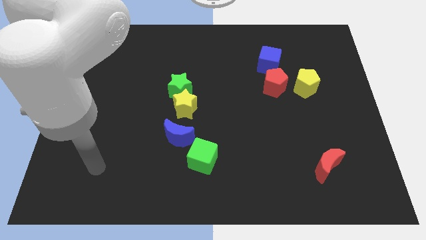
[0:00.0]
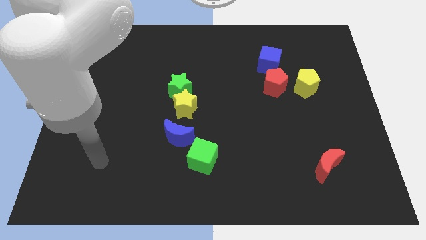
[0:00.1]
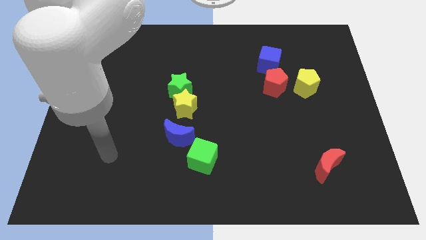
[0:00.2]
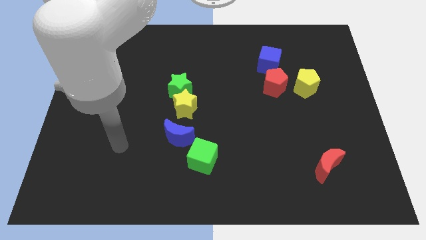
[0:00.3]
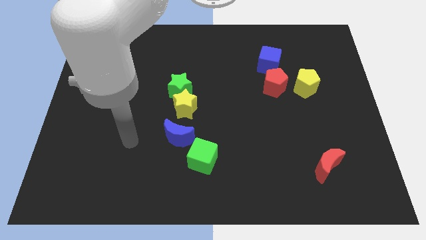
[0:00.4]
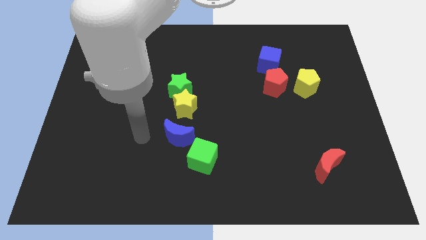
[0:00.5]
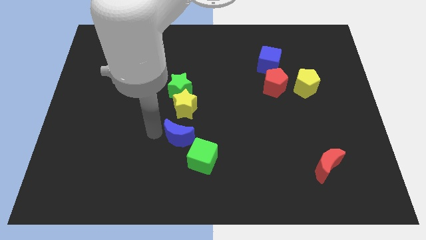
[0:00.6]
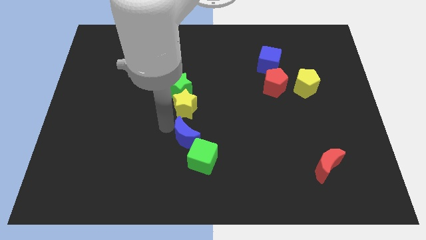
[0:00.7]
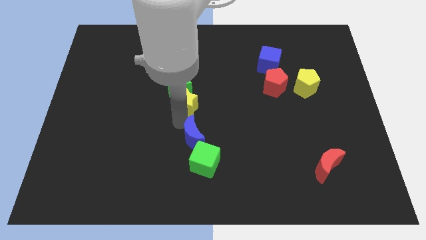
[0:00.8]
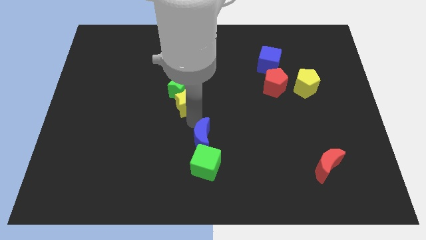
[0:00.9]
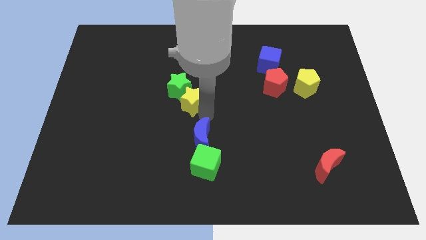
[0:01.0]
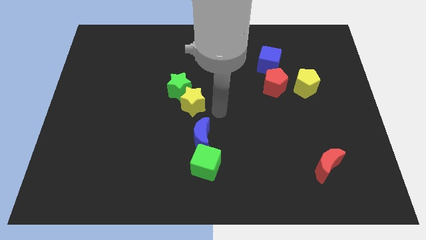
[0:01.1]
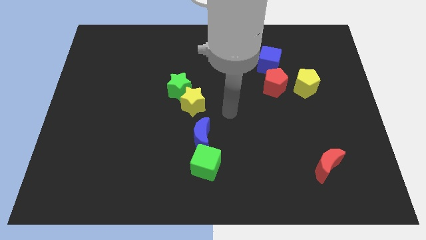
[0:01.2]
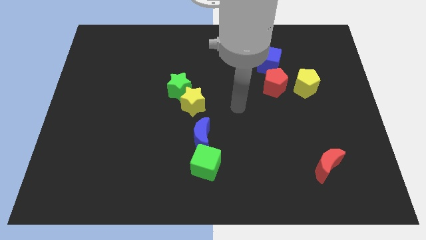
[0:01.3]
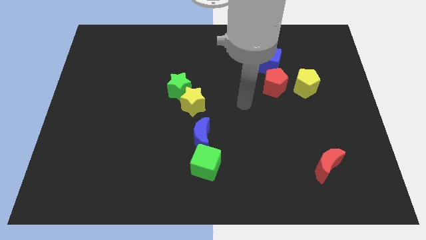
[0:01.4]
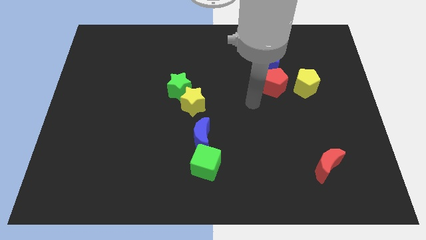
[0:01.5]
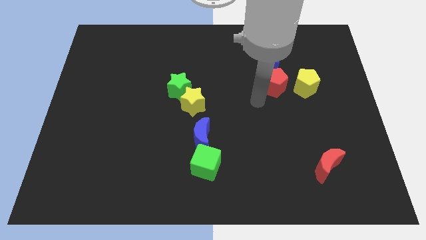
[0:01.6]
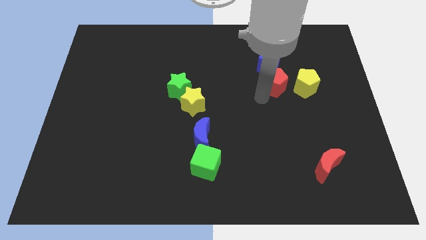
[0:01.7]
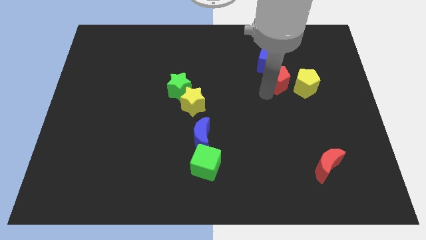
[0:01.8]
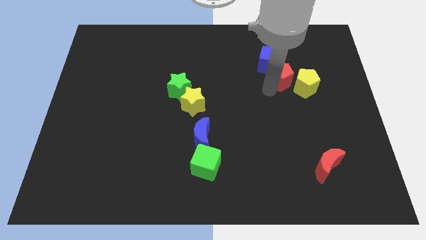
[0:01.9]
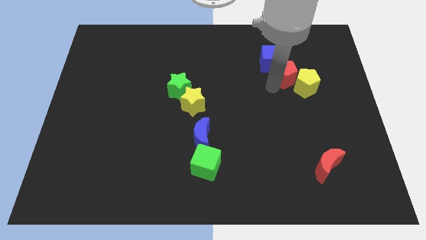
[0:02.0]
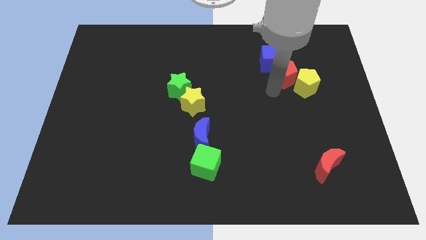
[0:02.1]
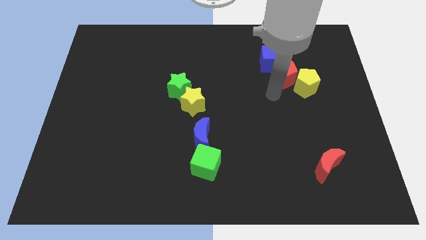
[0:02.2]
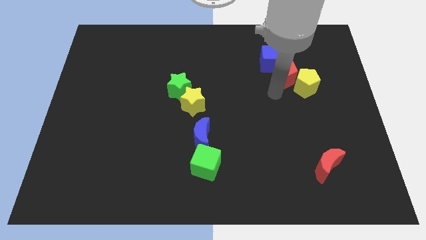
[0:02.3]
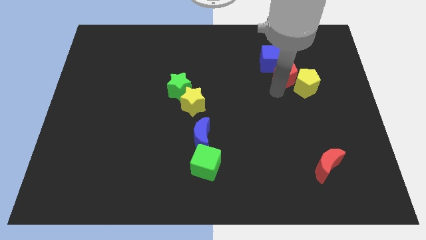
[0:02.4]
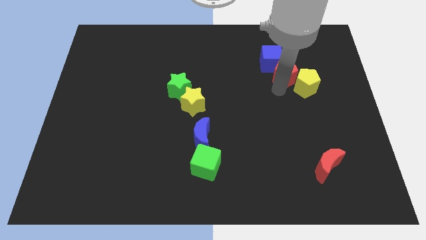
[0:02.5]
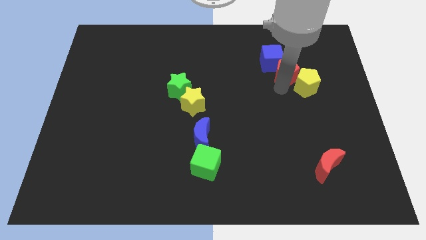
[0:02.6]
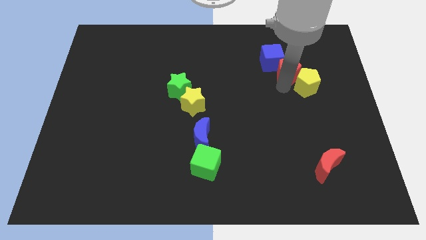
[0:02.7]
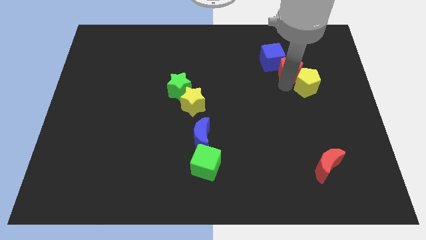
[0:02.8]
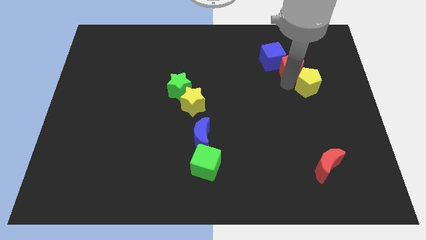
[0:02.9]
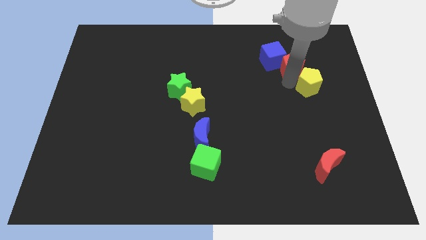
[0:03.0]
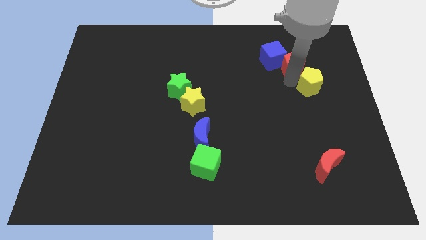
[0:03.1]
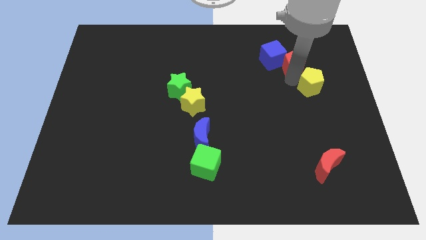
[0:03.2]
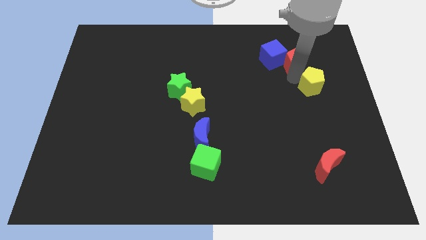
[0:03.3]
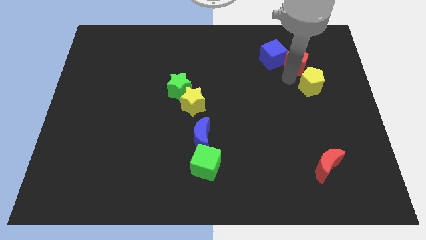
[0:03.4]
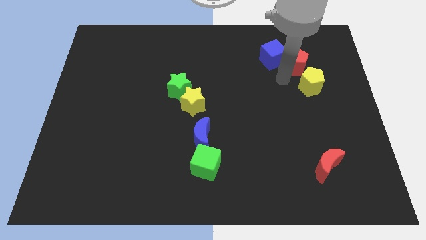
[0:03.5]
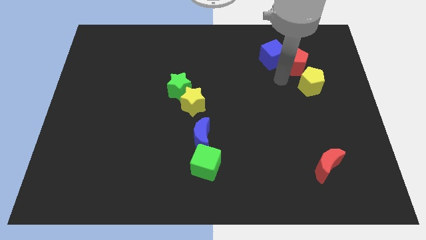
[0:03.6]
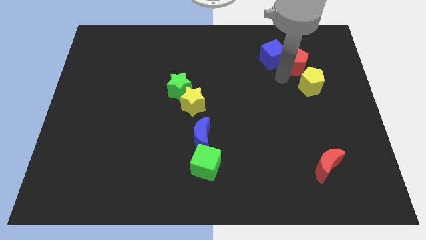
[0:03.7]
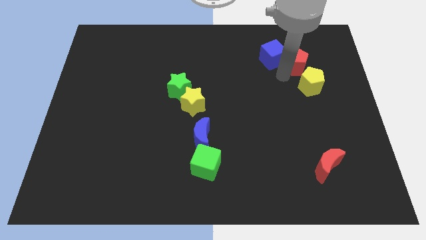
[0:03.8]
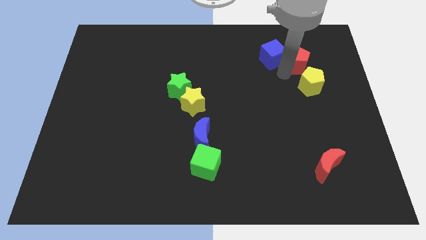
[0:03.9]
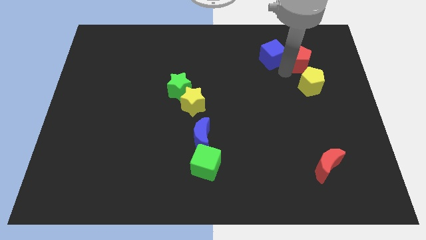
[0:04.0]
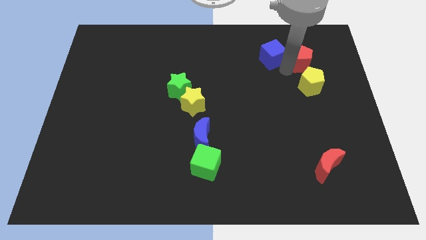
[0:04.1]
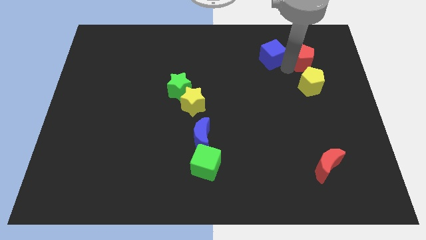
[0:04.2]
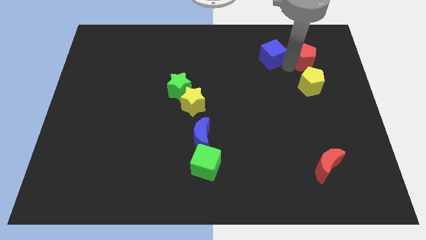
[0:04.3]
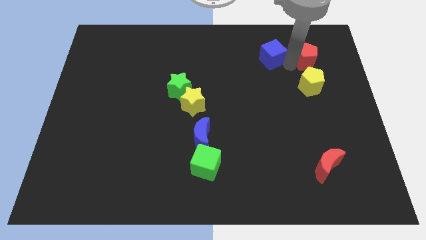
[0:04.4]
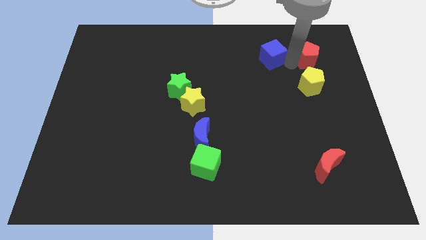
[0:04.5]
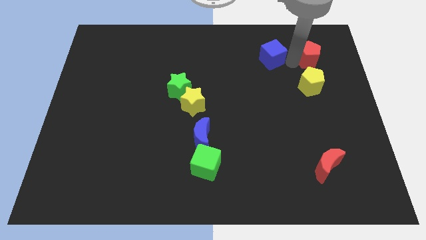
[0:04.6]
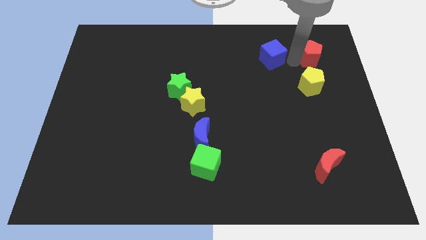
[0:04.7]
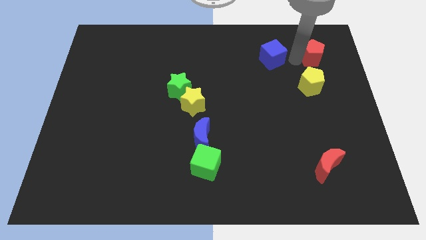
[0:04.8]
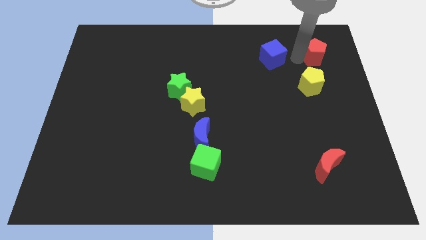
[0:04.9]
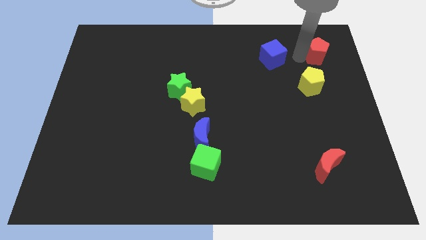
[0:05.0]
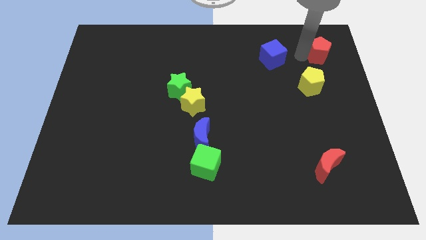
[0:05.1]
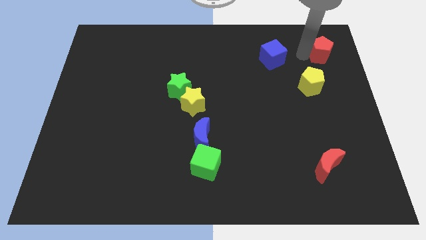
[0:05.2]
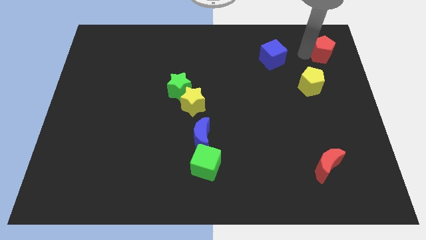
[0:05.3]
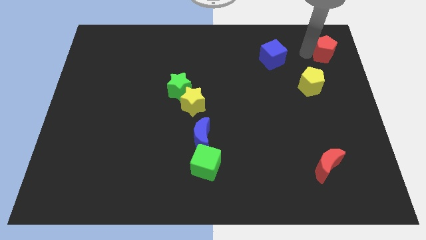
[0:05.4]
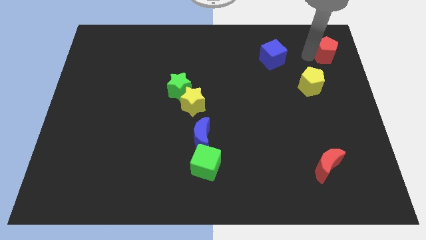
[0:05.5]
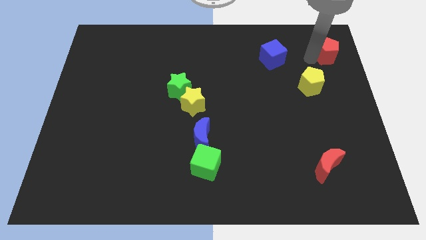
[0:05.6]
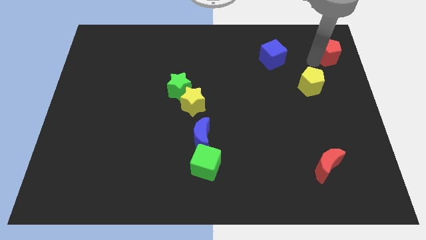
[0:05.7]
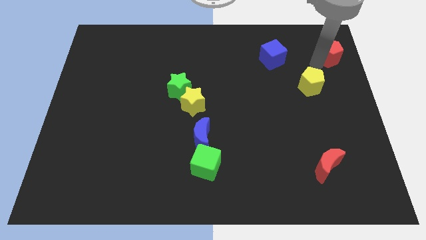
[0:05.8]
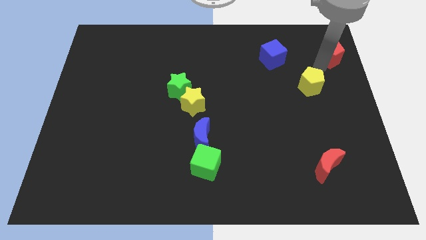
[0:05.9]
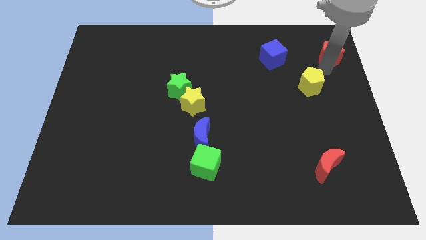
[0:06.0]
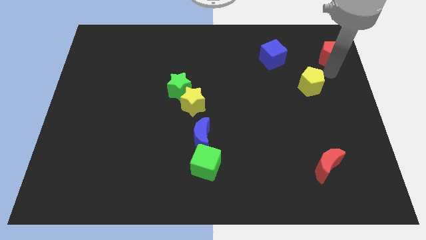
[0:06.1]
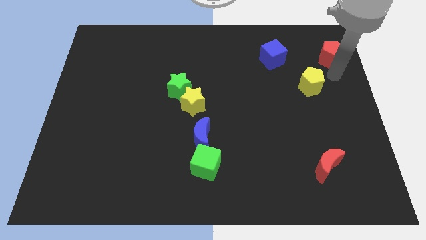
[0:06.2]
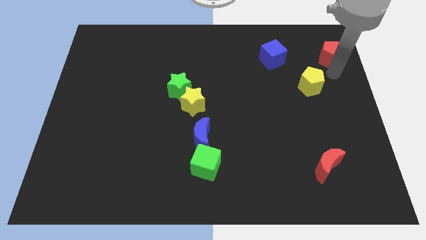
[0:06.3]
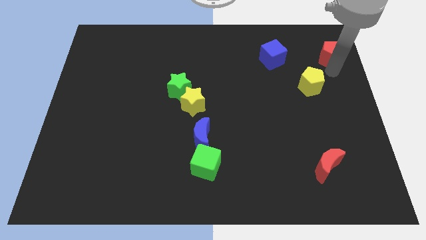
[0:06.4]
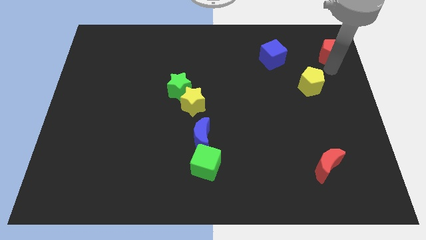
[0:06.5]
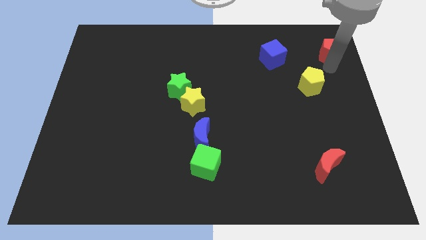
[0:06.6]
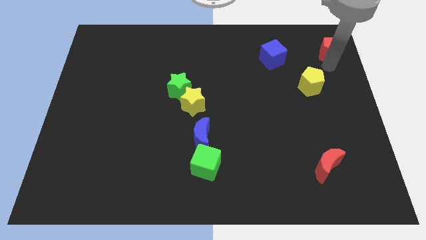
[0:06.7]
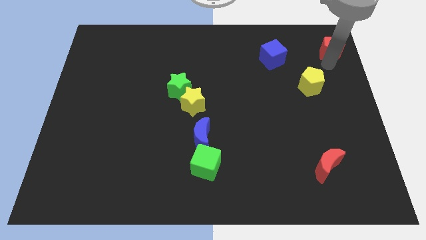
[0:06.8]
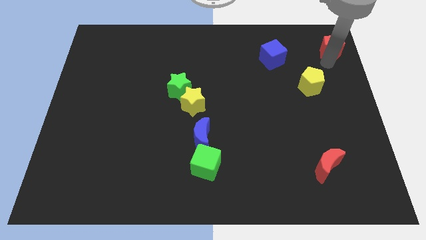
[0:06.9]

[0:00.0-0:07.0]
push the red pentagon to the upper right corner
